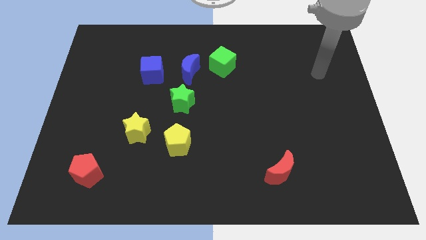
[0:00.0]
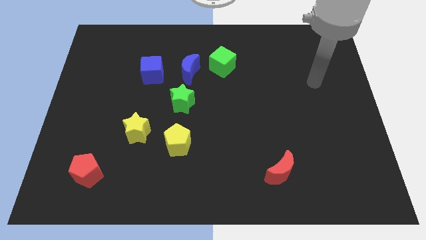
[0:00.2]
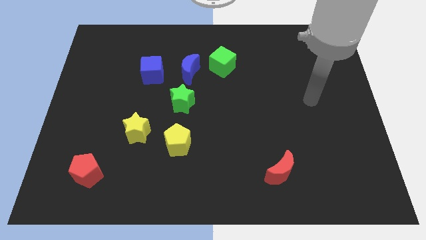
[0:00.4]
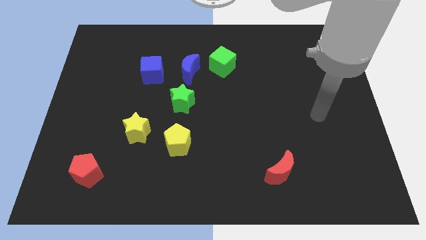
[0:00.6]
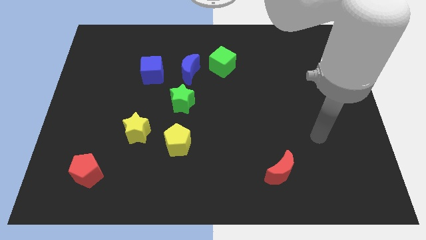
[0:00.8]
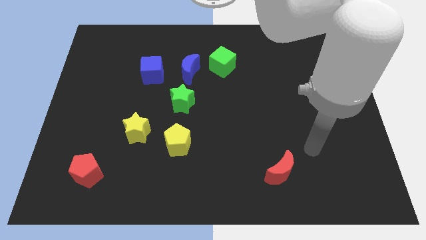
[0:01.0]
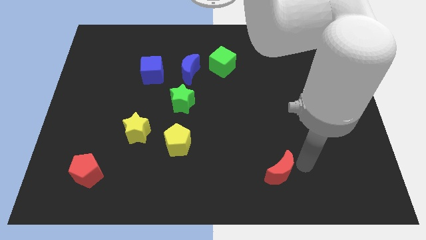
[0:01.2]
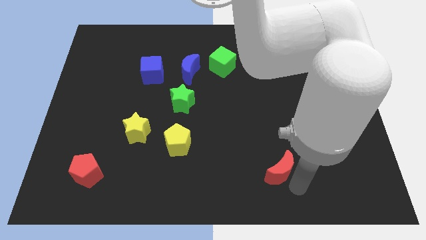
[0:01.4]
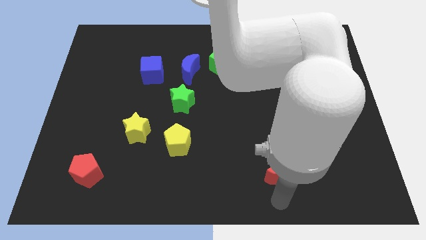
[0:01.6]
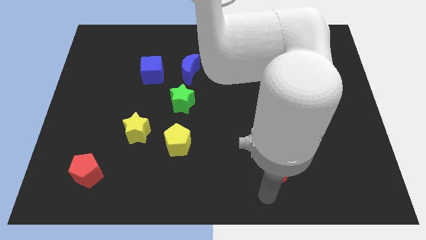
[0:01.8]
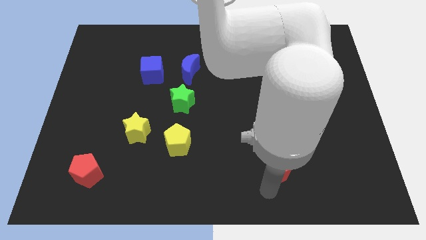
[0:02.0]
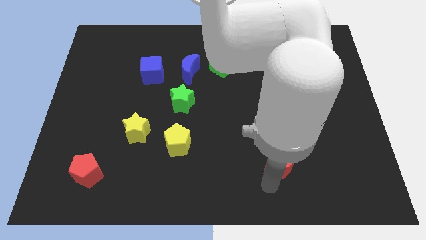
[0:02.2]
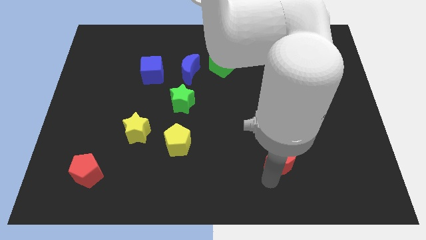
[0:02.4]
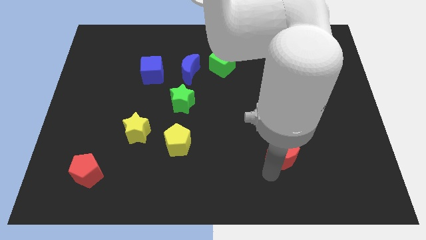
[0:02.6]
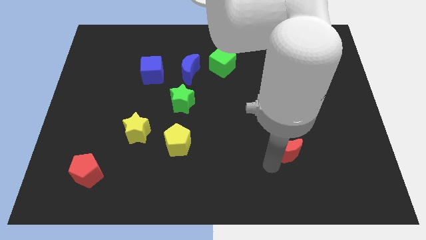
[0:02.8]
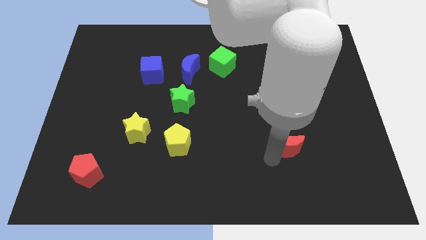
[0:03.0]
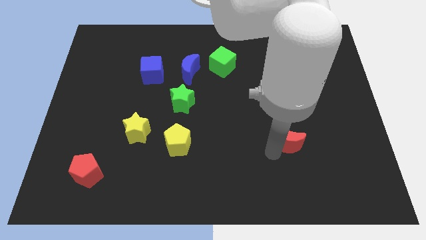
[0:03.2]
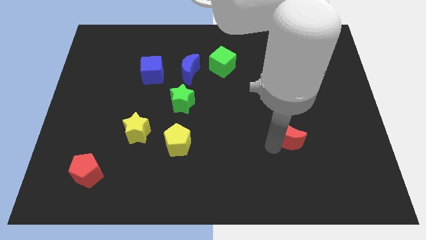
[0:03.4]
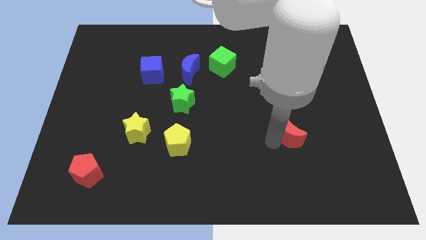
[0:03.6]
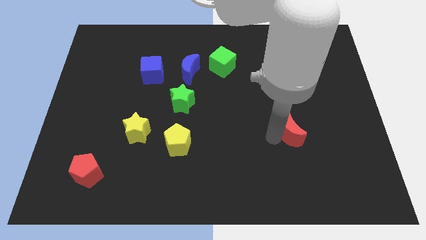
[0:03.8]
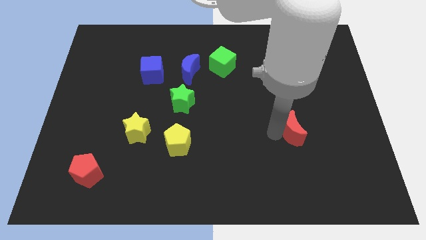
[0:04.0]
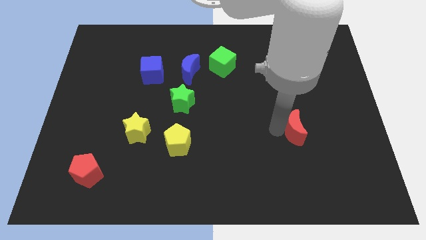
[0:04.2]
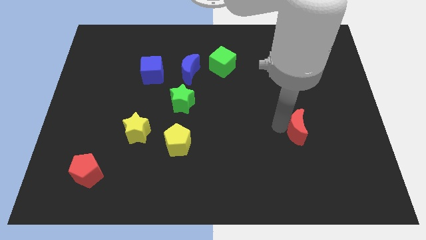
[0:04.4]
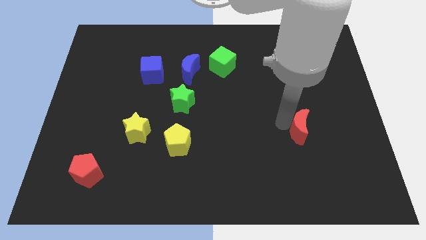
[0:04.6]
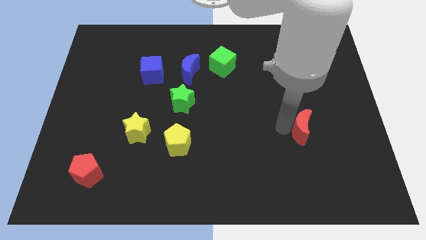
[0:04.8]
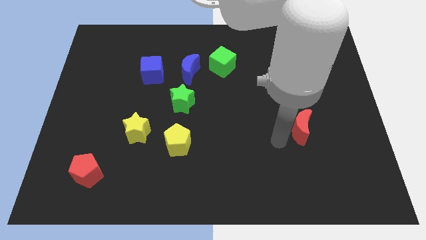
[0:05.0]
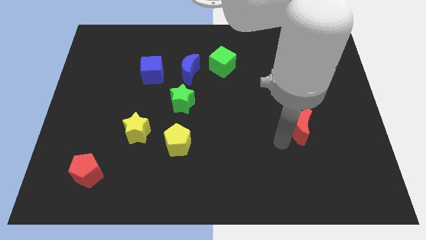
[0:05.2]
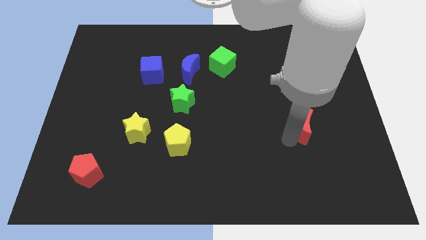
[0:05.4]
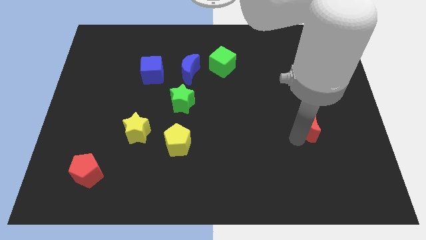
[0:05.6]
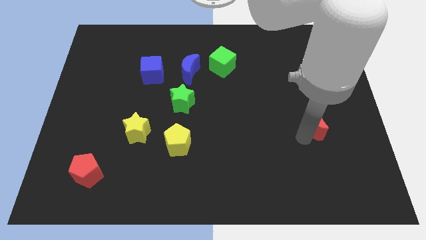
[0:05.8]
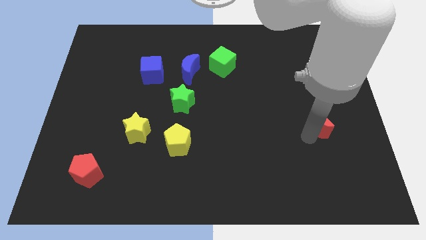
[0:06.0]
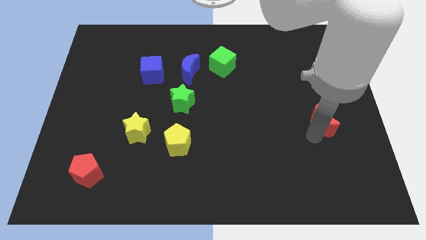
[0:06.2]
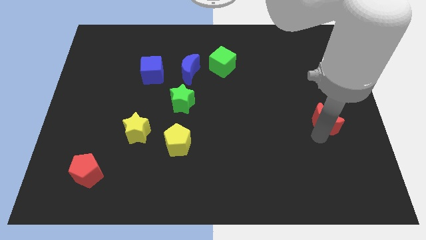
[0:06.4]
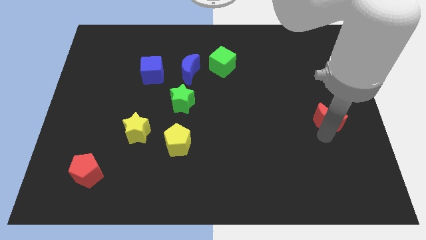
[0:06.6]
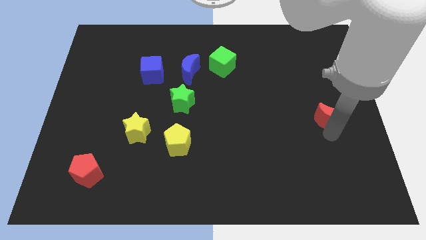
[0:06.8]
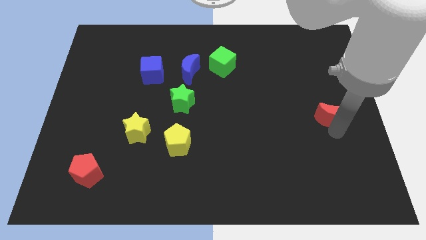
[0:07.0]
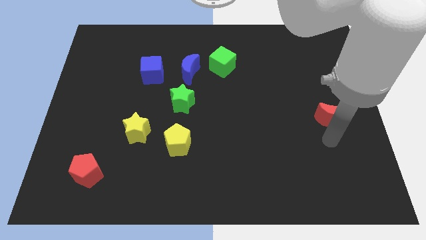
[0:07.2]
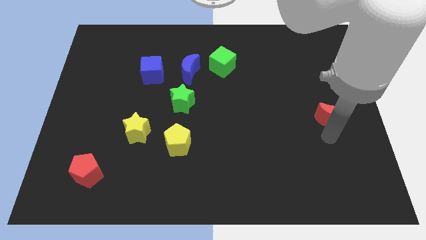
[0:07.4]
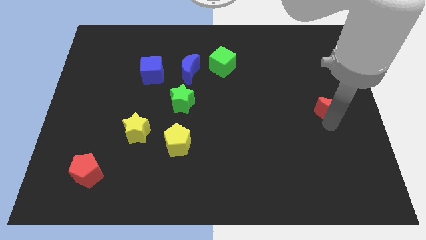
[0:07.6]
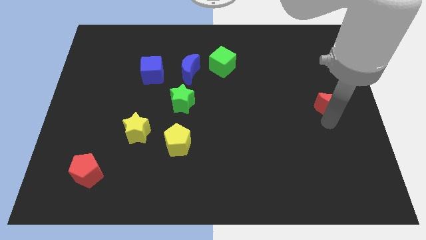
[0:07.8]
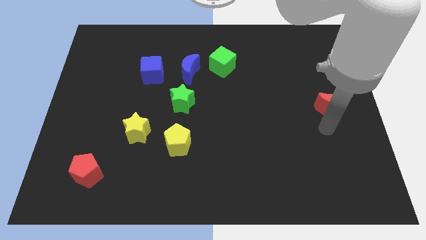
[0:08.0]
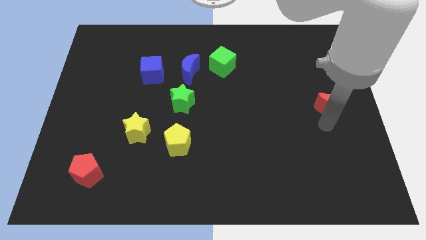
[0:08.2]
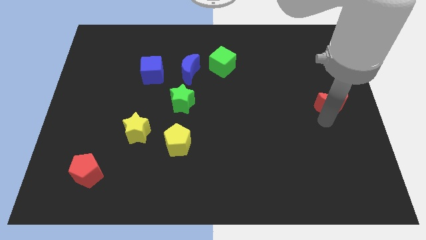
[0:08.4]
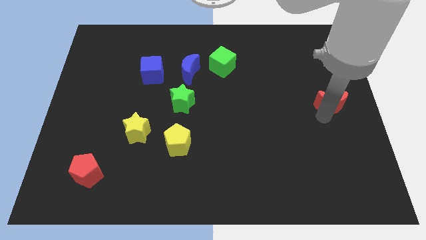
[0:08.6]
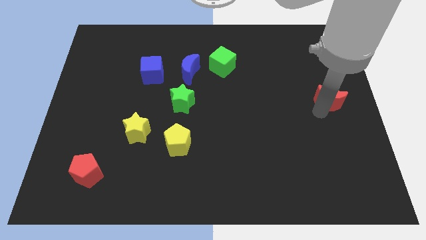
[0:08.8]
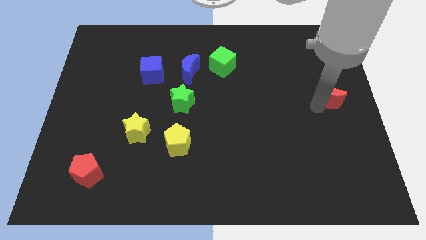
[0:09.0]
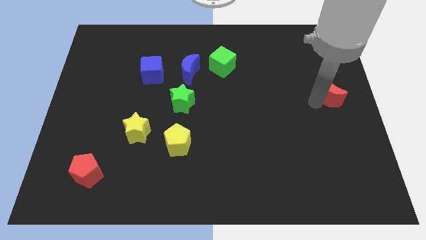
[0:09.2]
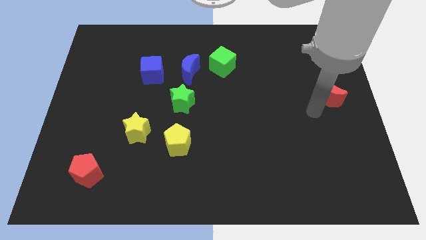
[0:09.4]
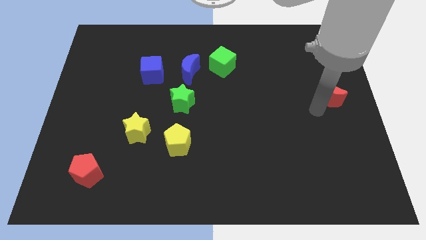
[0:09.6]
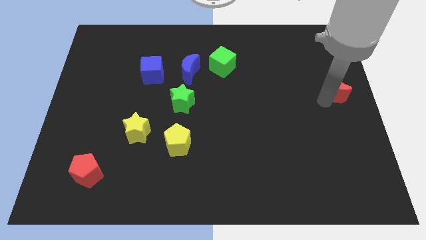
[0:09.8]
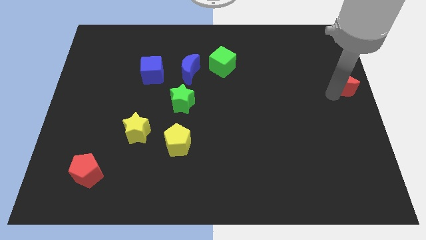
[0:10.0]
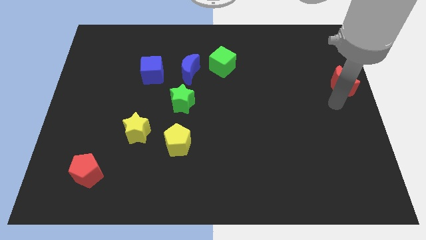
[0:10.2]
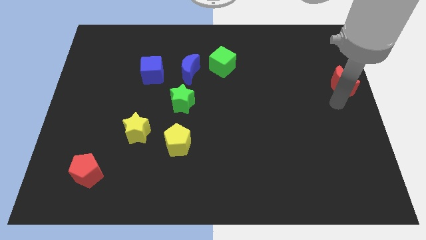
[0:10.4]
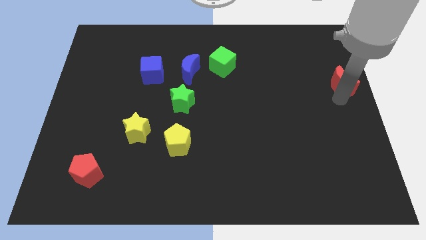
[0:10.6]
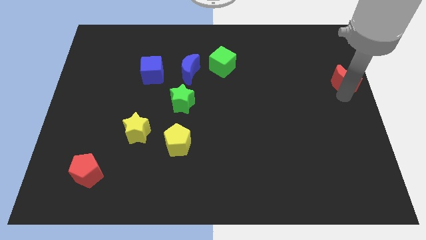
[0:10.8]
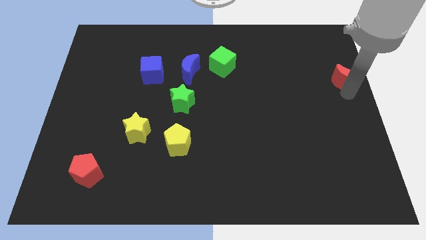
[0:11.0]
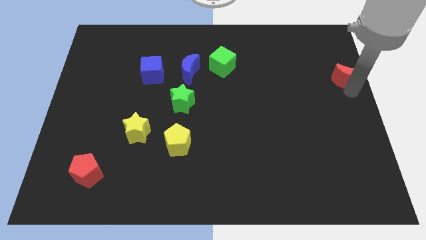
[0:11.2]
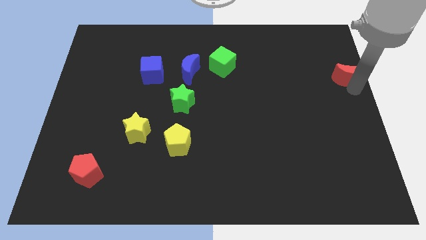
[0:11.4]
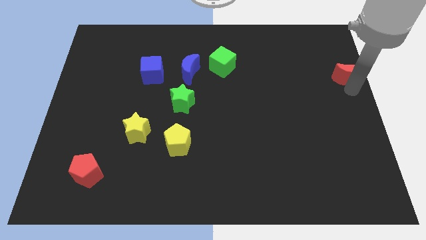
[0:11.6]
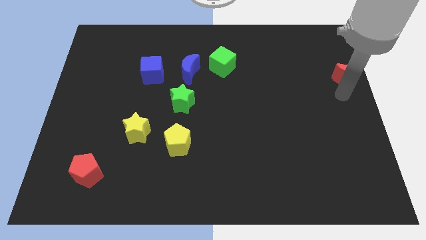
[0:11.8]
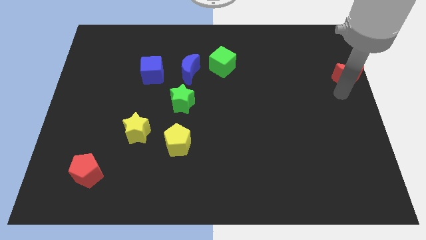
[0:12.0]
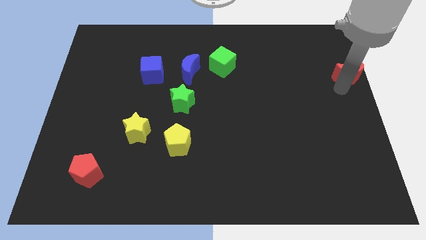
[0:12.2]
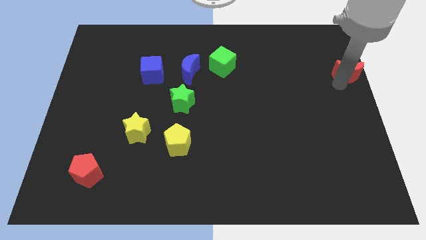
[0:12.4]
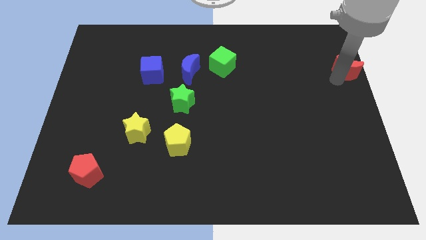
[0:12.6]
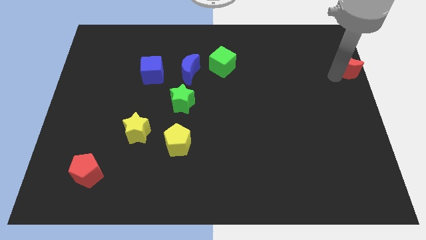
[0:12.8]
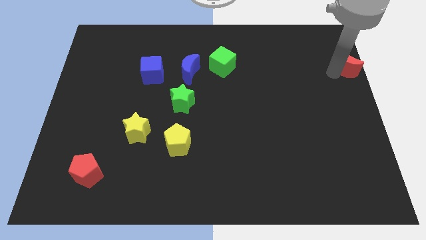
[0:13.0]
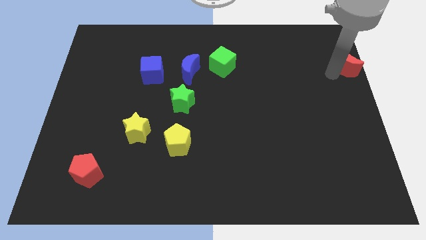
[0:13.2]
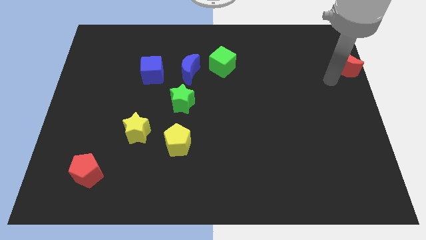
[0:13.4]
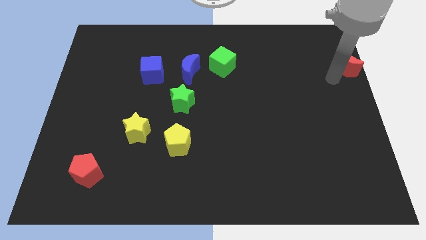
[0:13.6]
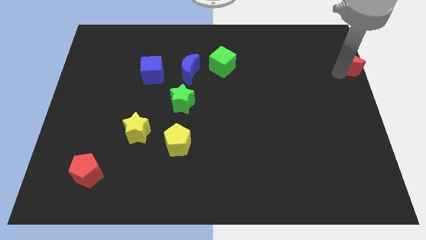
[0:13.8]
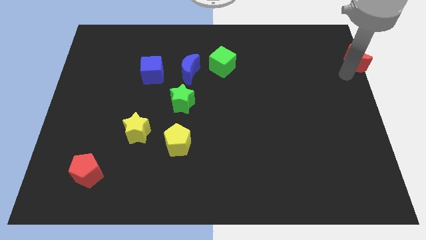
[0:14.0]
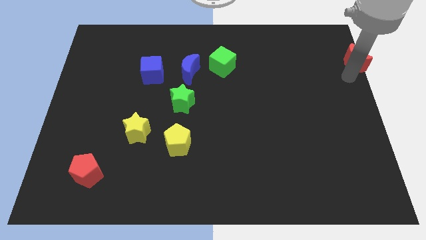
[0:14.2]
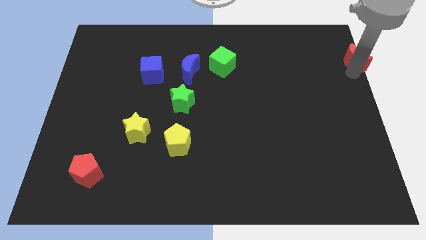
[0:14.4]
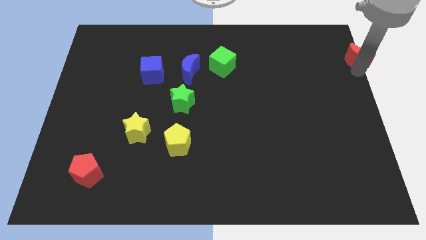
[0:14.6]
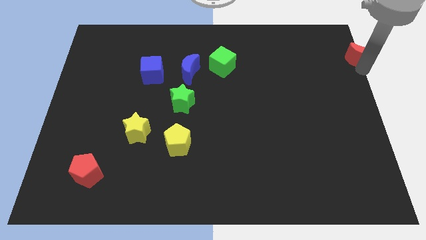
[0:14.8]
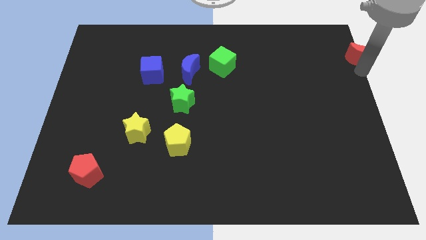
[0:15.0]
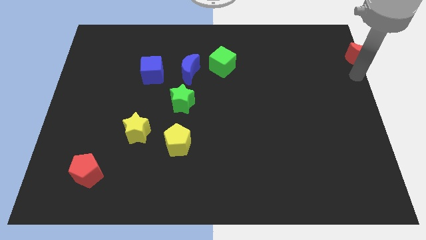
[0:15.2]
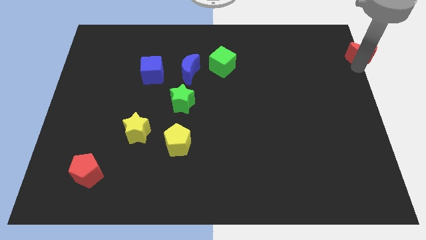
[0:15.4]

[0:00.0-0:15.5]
slide the red moon to the upper right corner
